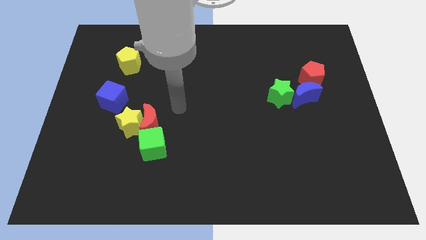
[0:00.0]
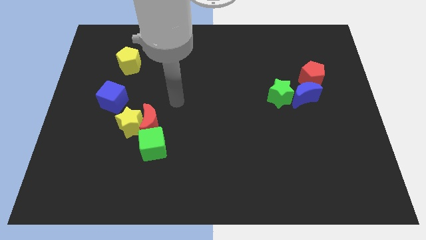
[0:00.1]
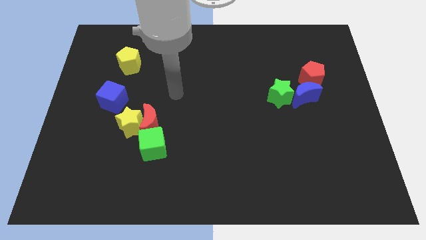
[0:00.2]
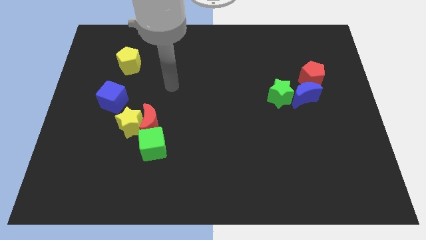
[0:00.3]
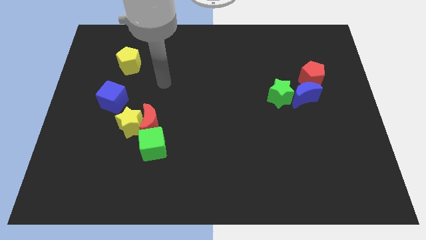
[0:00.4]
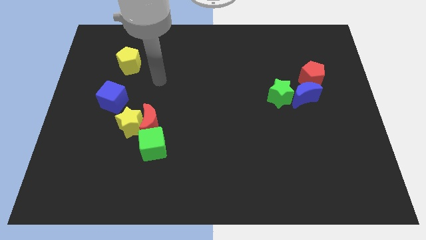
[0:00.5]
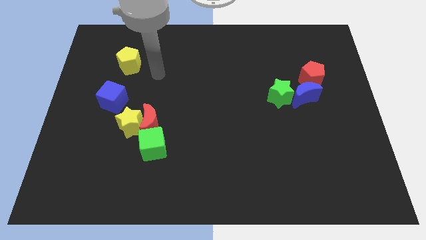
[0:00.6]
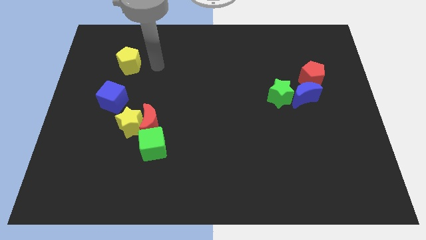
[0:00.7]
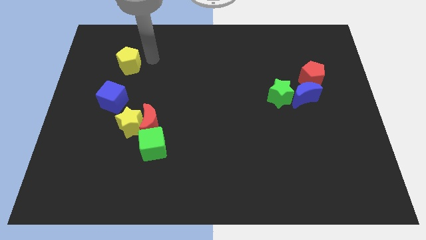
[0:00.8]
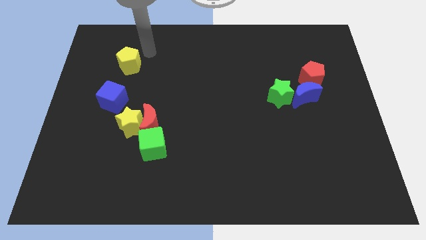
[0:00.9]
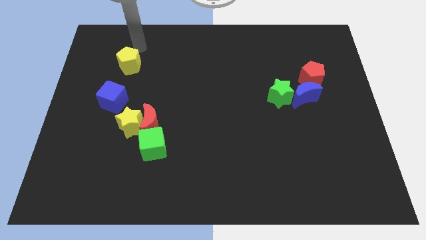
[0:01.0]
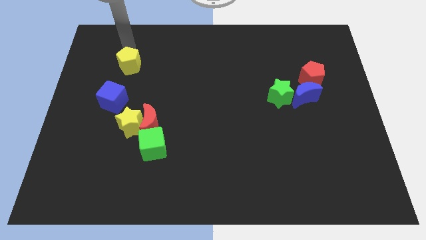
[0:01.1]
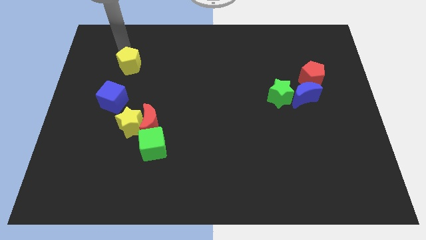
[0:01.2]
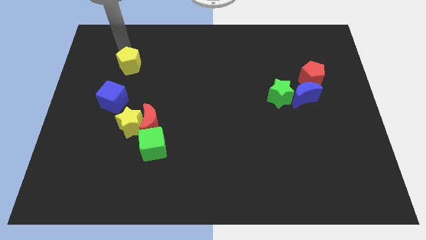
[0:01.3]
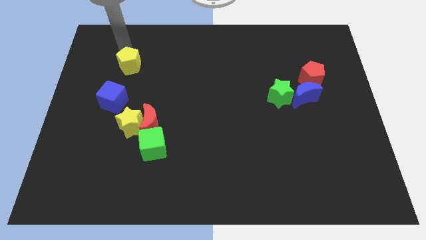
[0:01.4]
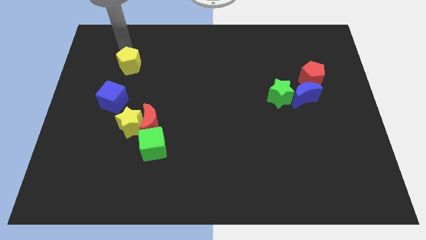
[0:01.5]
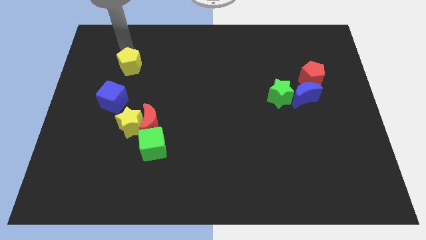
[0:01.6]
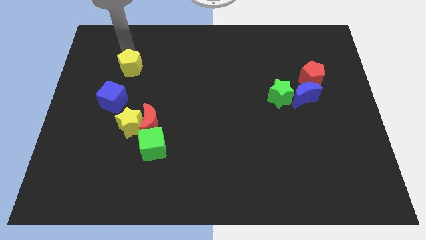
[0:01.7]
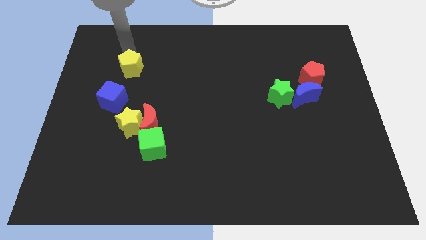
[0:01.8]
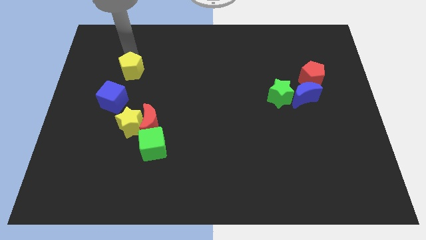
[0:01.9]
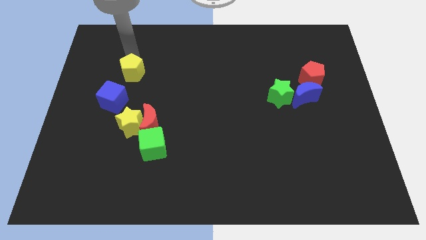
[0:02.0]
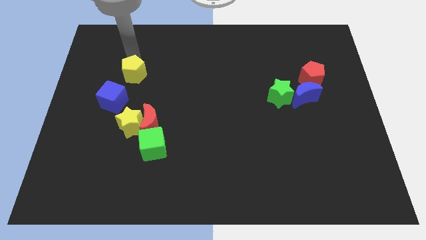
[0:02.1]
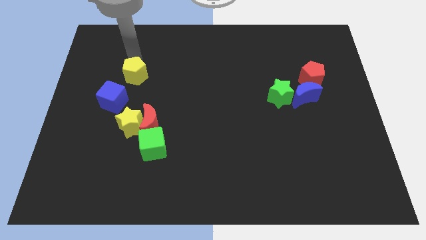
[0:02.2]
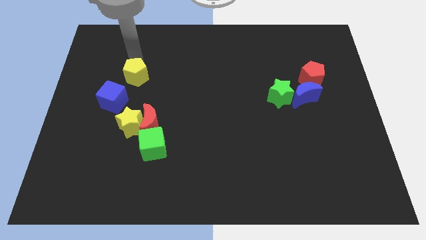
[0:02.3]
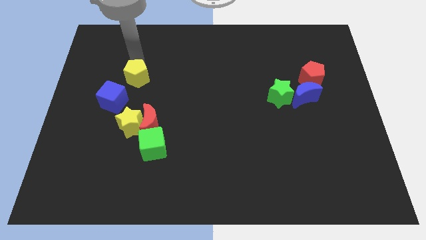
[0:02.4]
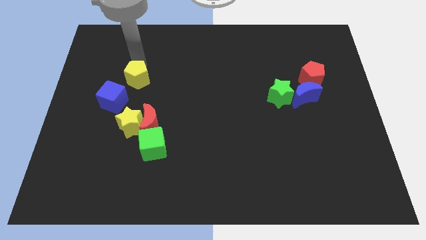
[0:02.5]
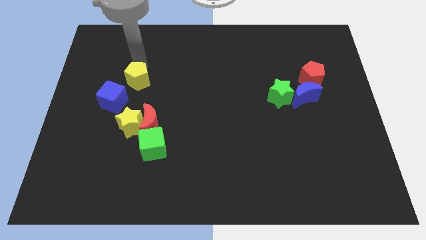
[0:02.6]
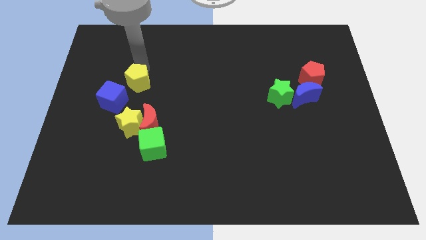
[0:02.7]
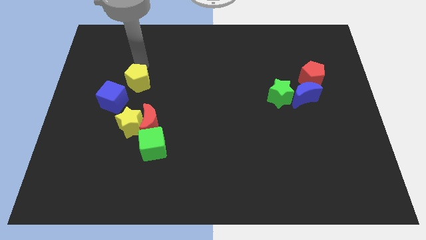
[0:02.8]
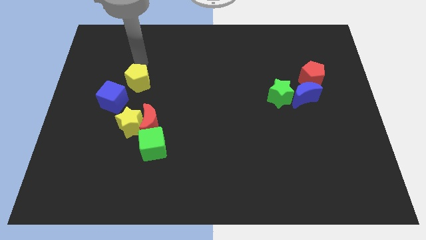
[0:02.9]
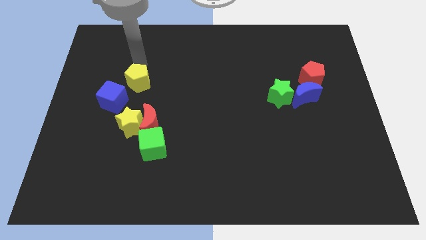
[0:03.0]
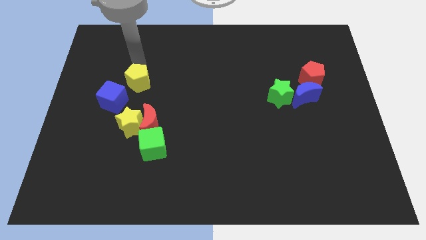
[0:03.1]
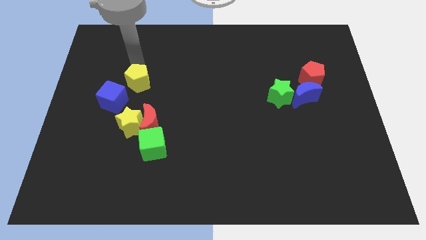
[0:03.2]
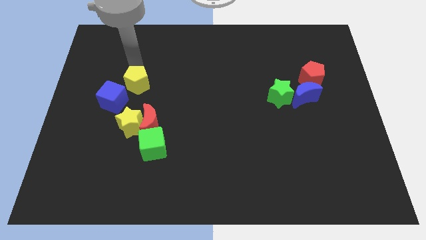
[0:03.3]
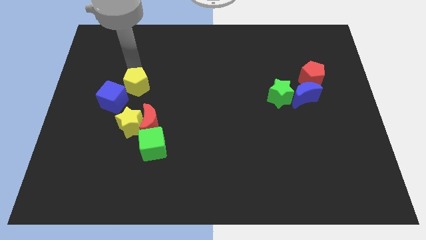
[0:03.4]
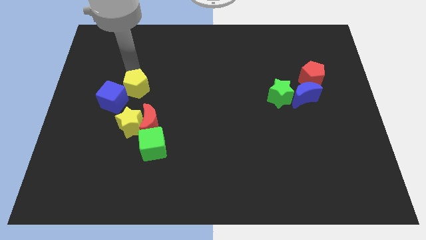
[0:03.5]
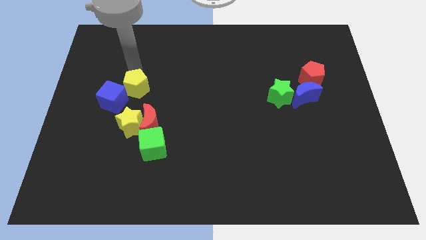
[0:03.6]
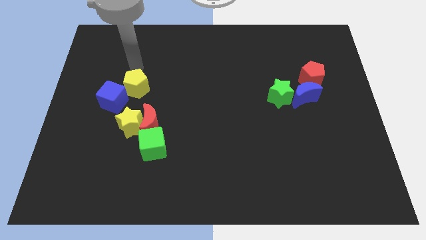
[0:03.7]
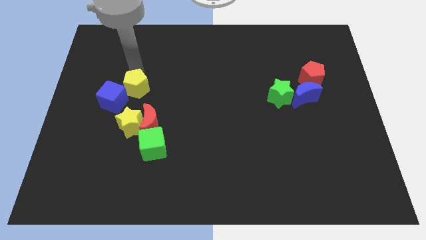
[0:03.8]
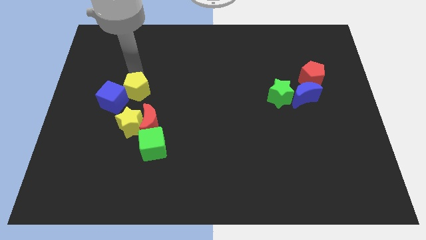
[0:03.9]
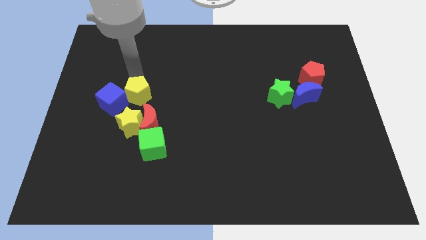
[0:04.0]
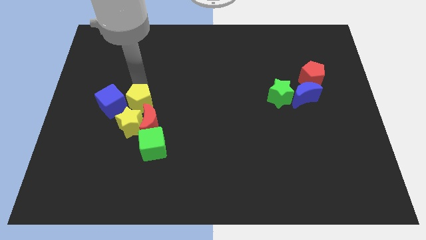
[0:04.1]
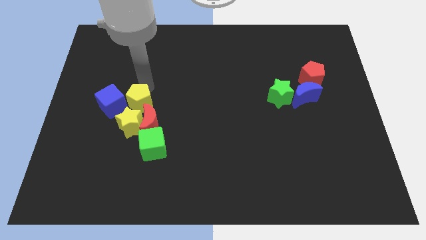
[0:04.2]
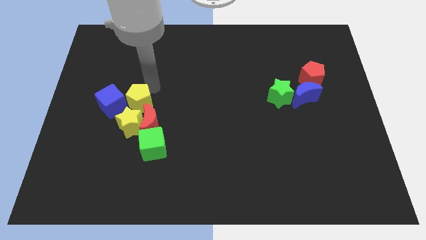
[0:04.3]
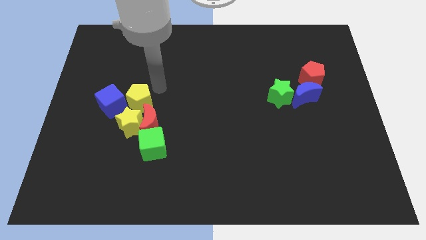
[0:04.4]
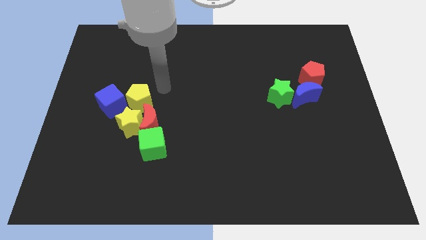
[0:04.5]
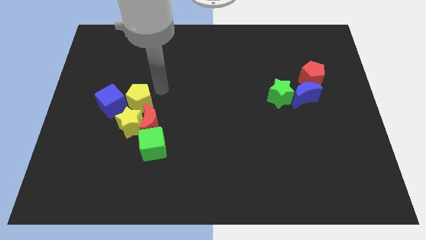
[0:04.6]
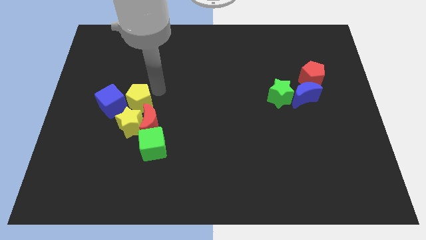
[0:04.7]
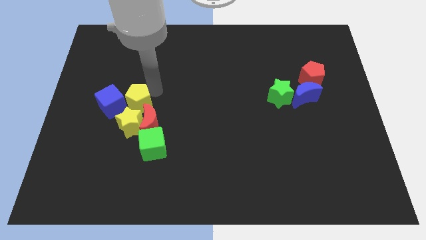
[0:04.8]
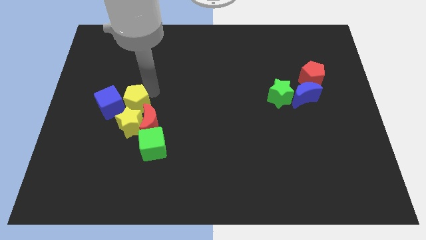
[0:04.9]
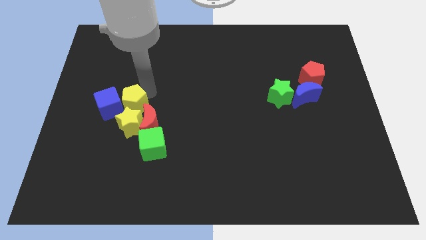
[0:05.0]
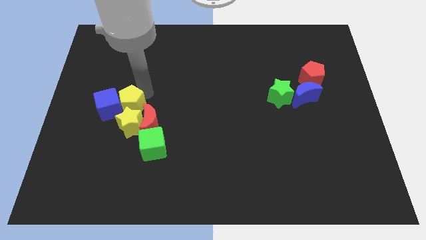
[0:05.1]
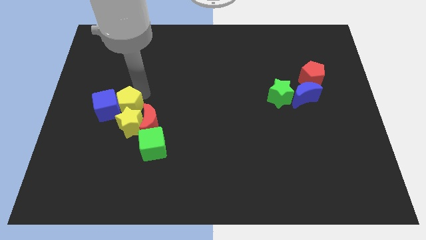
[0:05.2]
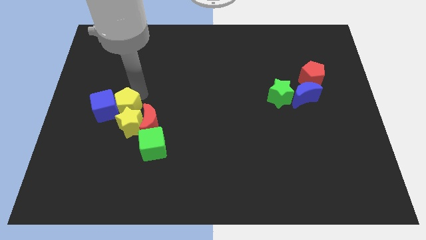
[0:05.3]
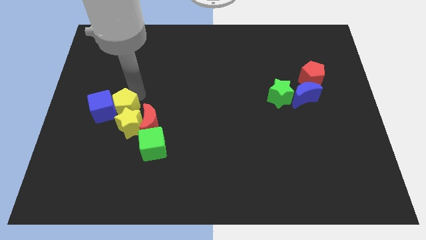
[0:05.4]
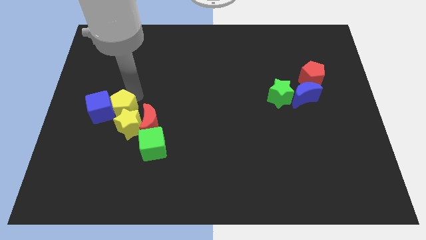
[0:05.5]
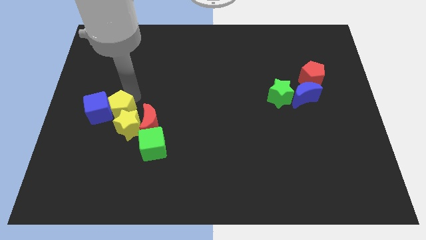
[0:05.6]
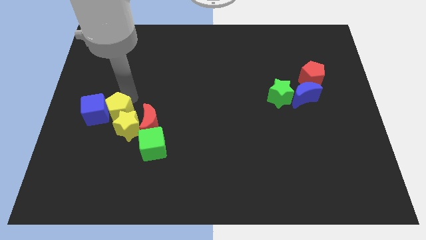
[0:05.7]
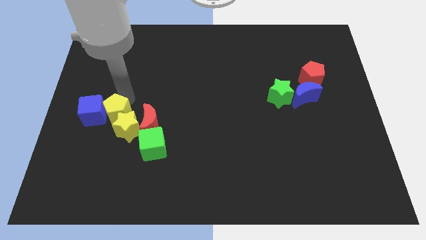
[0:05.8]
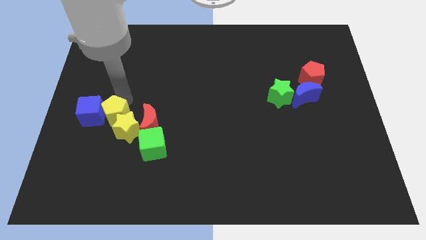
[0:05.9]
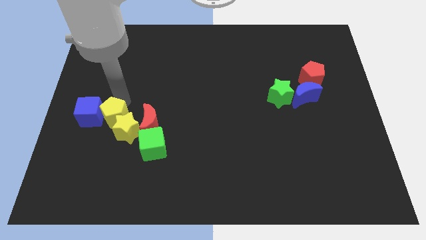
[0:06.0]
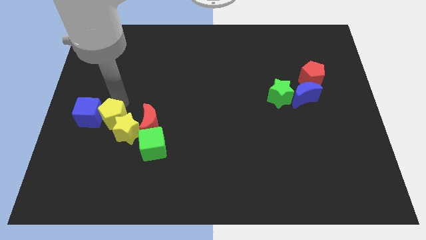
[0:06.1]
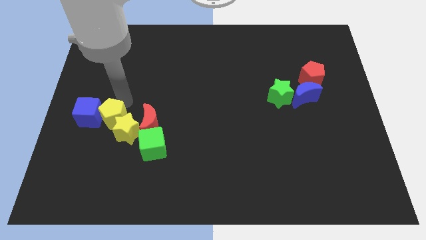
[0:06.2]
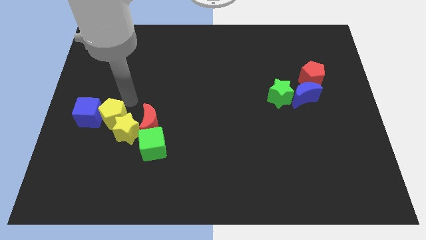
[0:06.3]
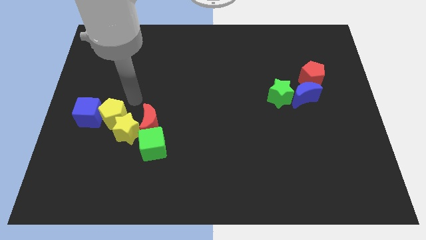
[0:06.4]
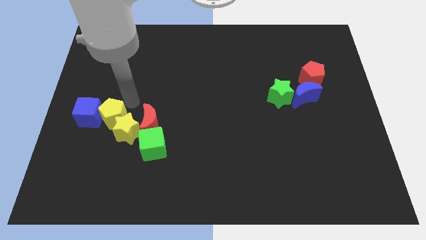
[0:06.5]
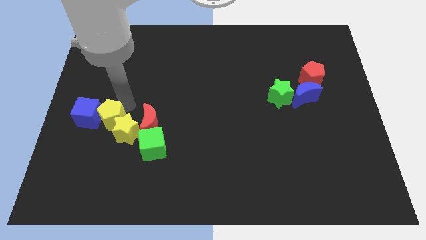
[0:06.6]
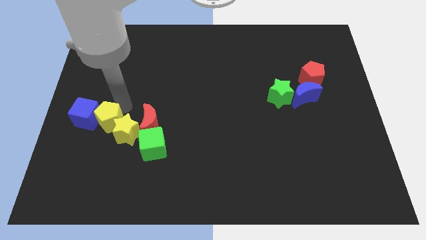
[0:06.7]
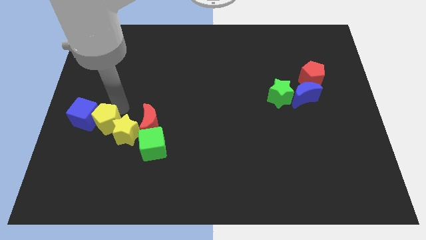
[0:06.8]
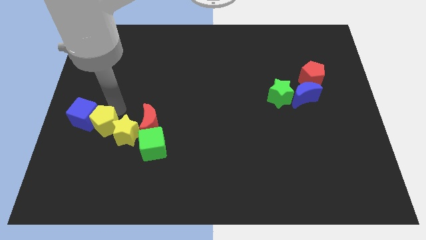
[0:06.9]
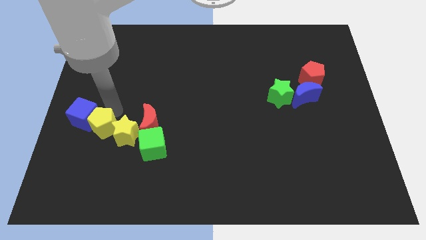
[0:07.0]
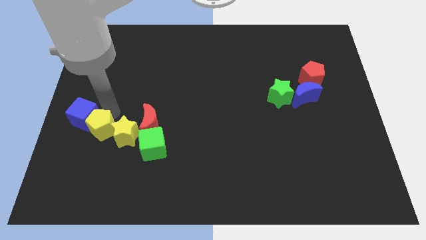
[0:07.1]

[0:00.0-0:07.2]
push the yellow pentagon down

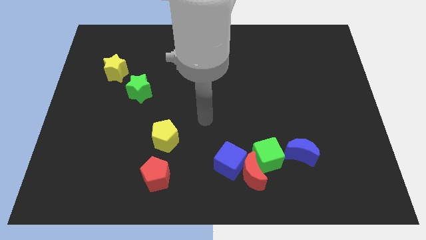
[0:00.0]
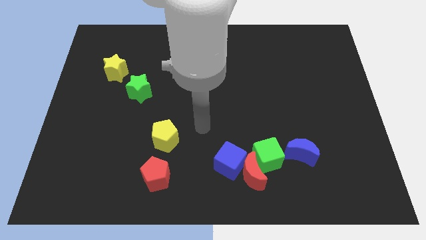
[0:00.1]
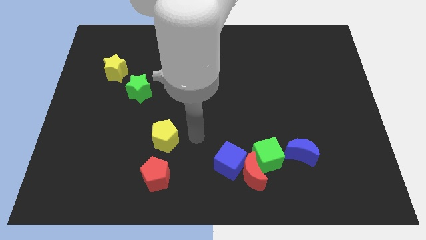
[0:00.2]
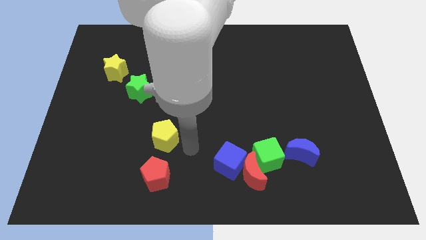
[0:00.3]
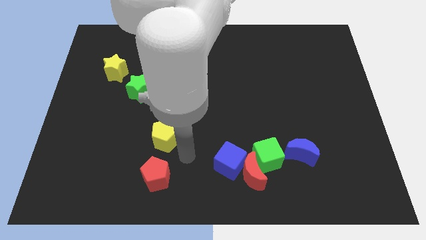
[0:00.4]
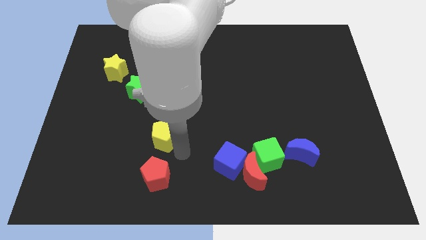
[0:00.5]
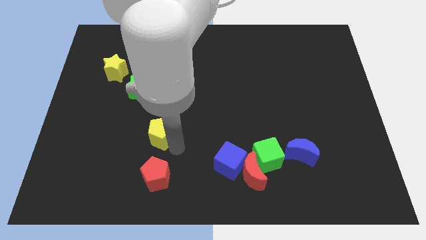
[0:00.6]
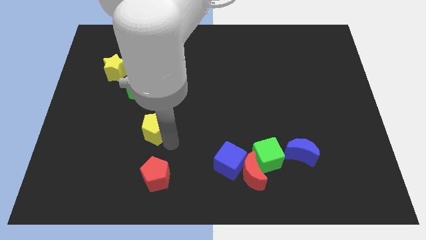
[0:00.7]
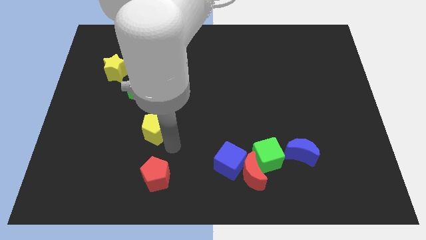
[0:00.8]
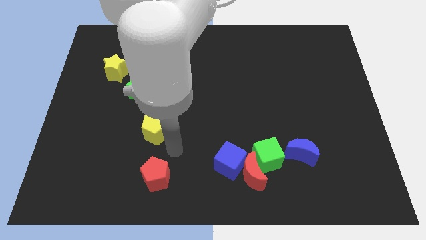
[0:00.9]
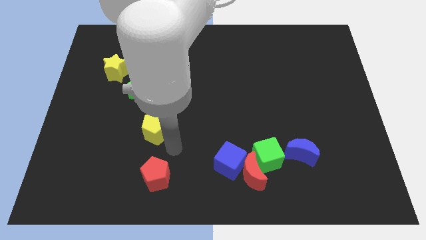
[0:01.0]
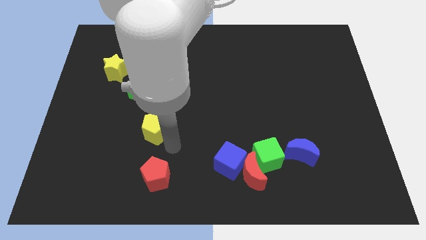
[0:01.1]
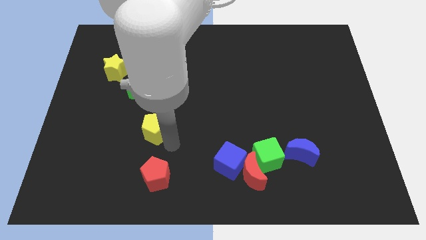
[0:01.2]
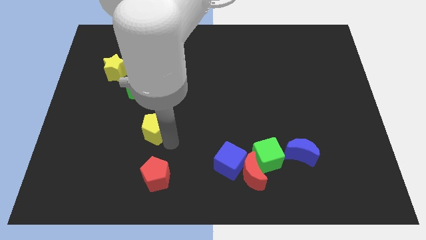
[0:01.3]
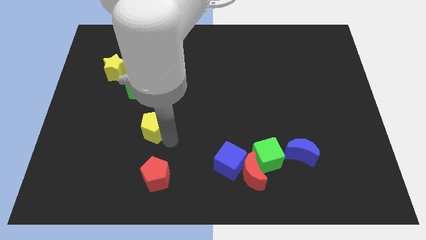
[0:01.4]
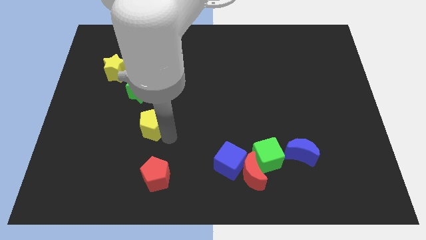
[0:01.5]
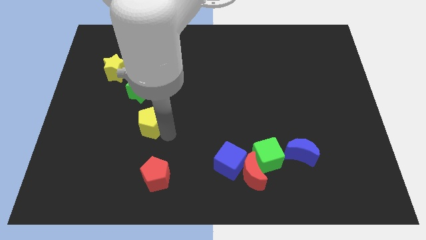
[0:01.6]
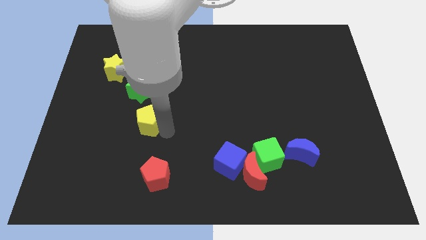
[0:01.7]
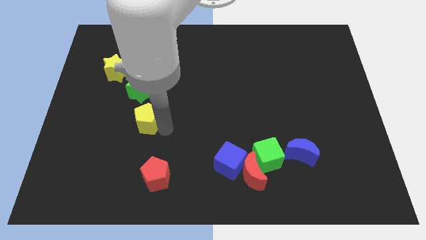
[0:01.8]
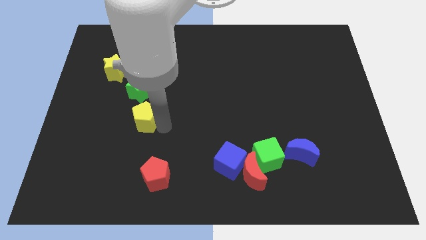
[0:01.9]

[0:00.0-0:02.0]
move the yellow pentagon a little bit up and left diagonally
